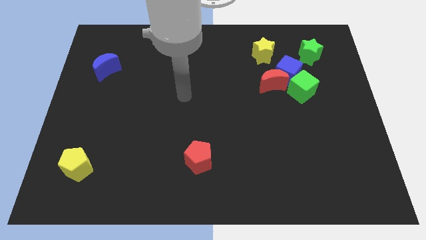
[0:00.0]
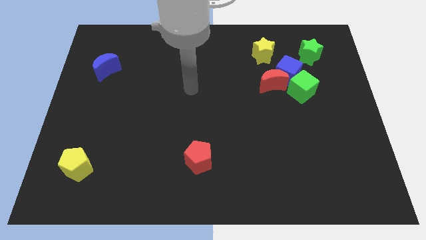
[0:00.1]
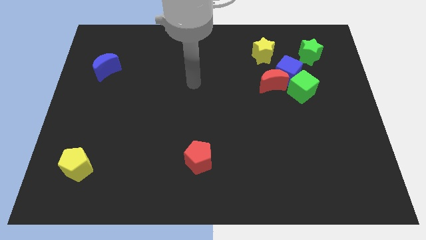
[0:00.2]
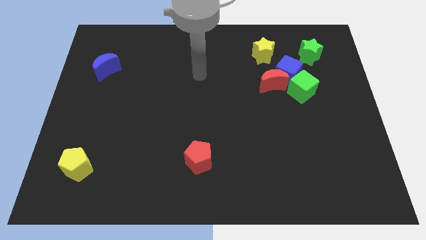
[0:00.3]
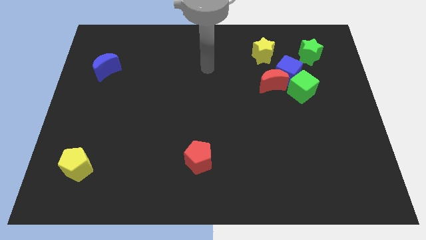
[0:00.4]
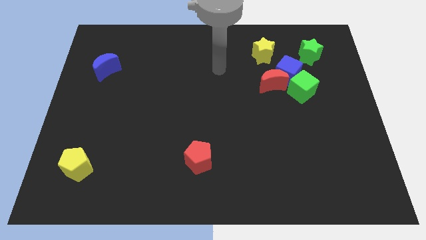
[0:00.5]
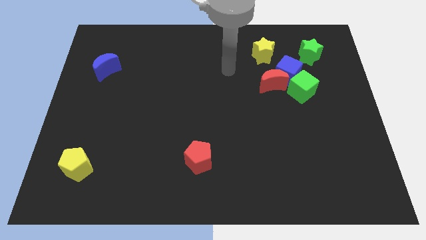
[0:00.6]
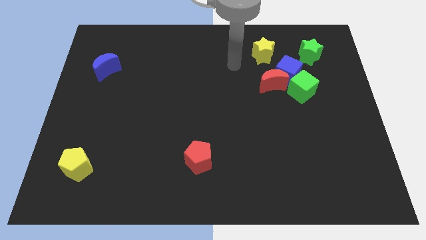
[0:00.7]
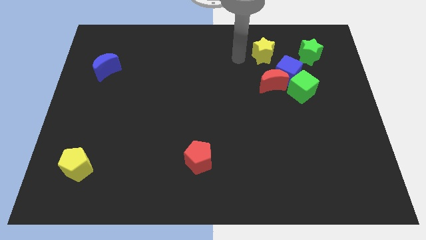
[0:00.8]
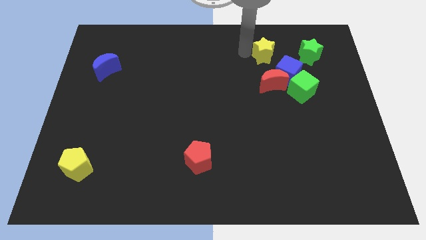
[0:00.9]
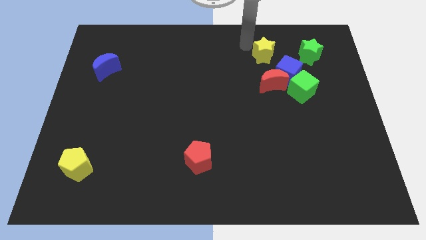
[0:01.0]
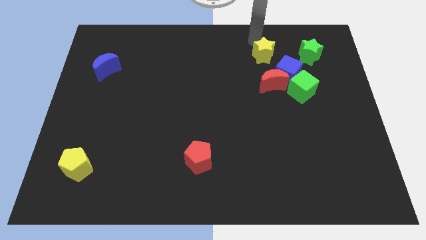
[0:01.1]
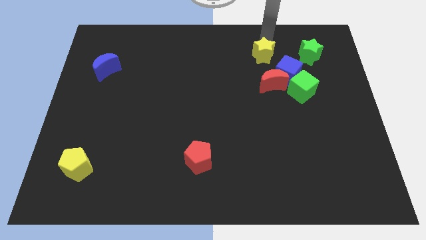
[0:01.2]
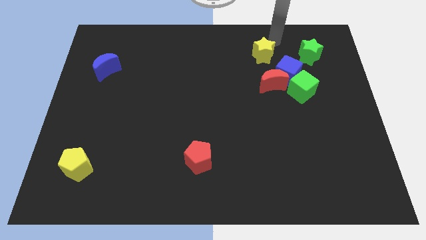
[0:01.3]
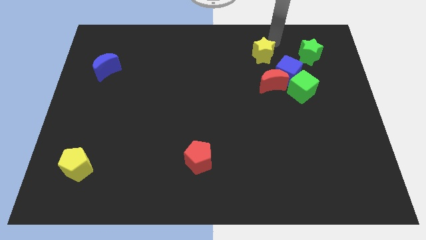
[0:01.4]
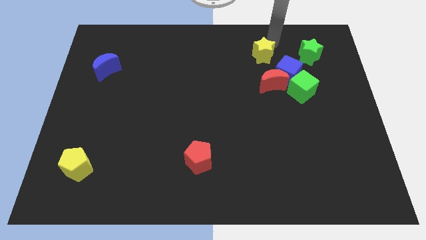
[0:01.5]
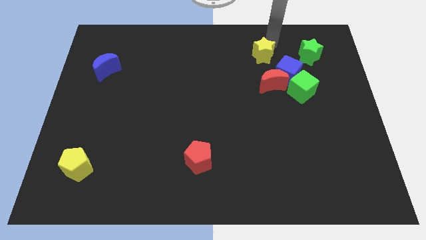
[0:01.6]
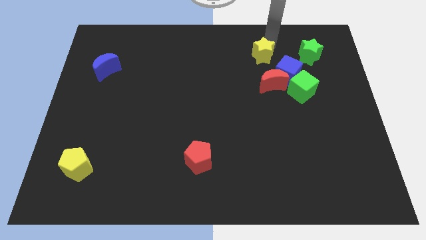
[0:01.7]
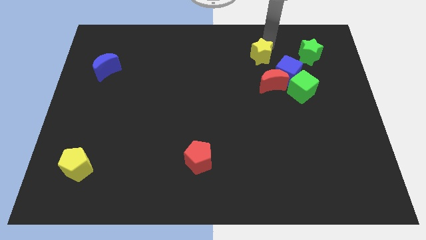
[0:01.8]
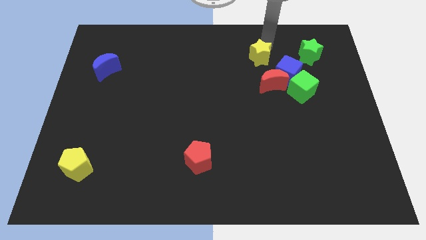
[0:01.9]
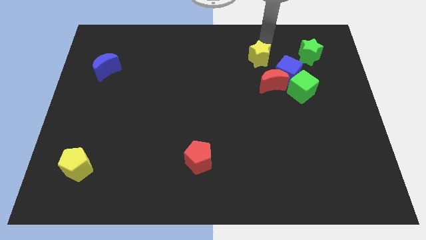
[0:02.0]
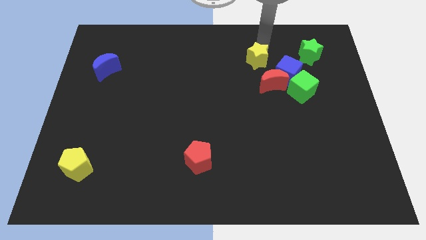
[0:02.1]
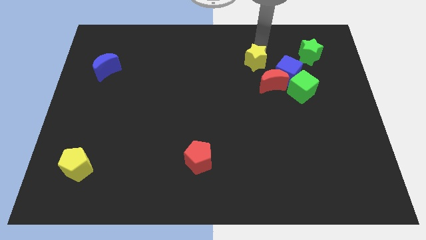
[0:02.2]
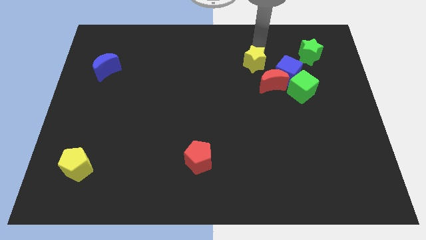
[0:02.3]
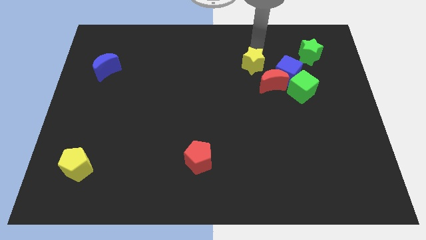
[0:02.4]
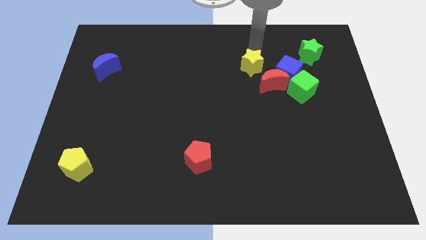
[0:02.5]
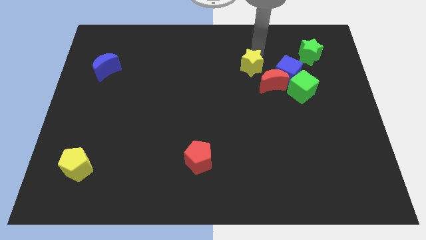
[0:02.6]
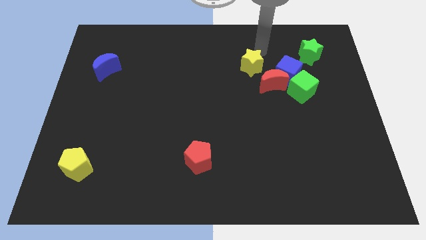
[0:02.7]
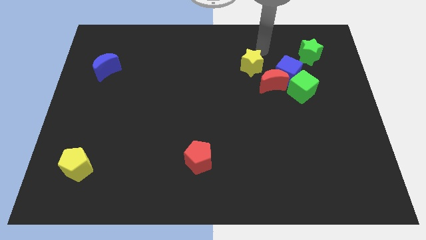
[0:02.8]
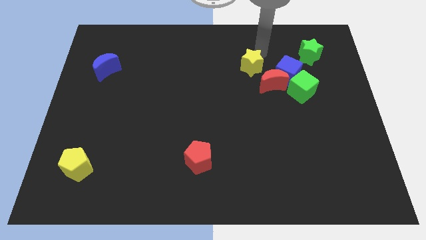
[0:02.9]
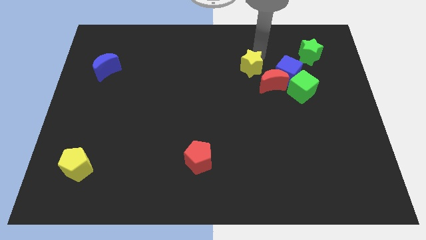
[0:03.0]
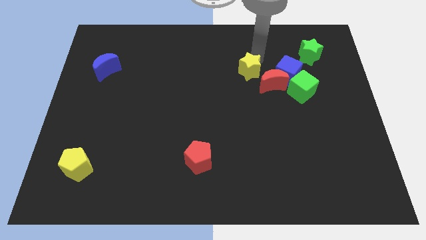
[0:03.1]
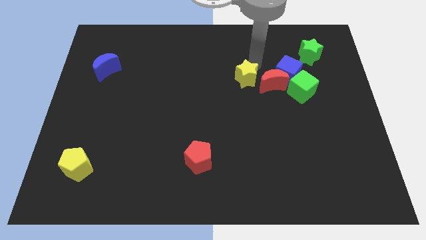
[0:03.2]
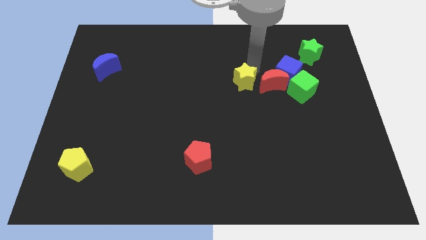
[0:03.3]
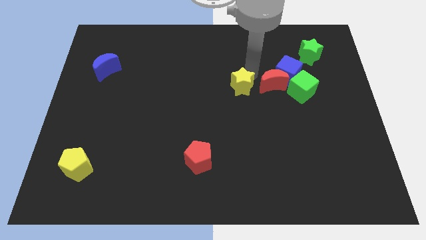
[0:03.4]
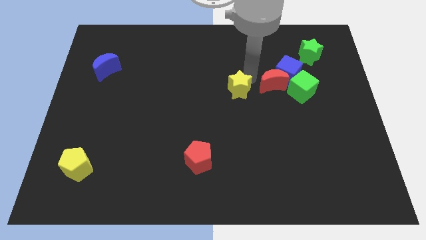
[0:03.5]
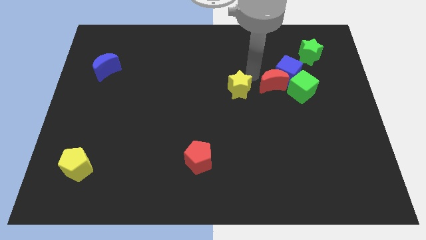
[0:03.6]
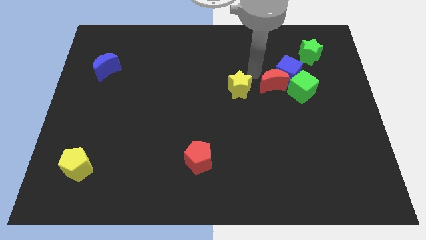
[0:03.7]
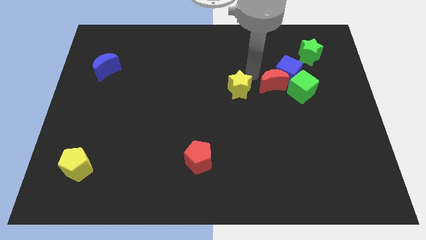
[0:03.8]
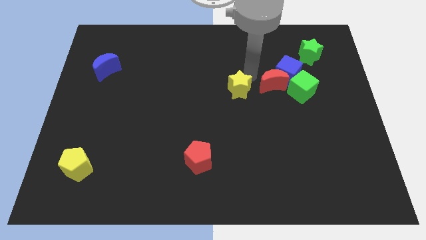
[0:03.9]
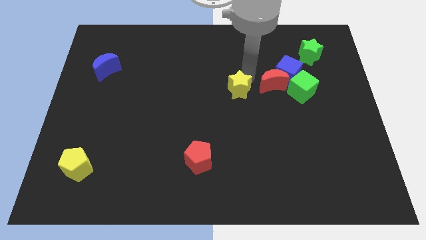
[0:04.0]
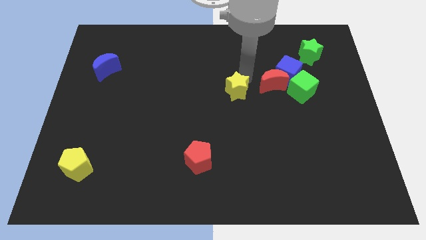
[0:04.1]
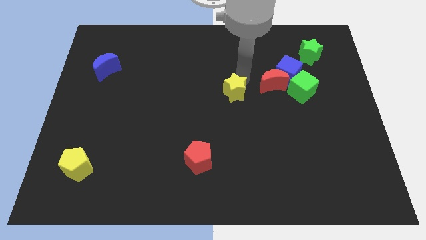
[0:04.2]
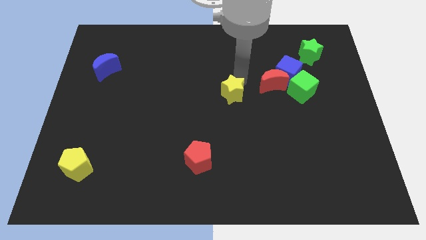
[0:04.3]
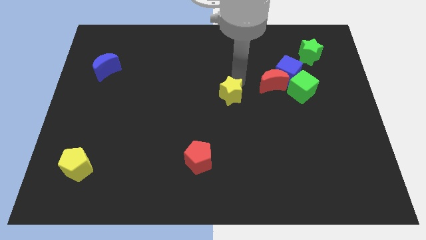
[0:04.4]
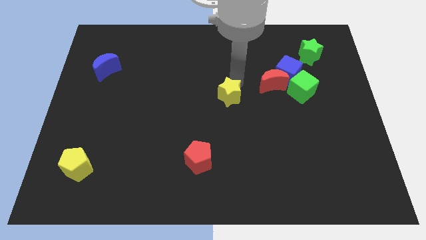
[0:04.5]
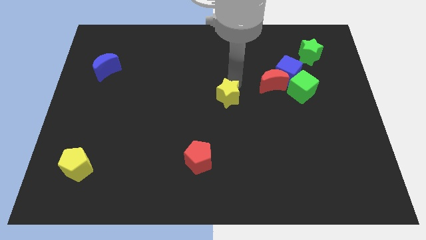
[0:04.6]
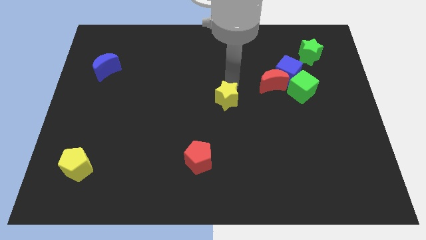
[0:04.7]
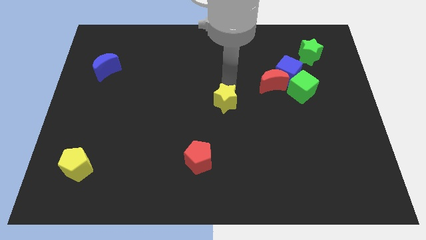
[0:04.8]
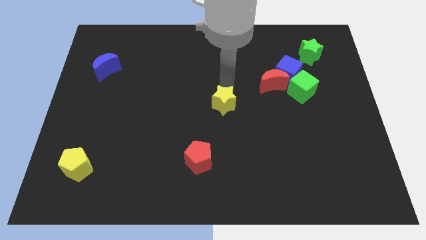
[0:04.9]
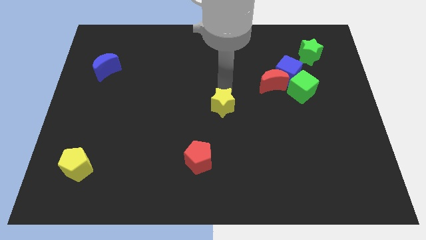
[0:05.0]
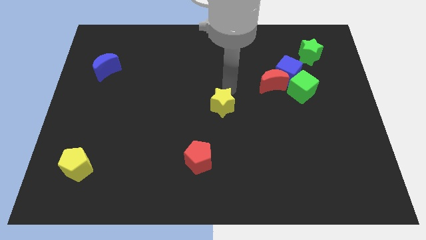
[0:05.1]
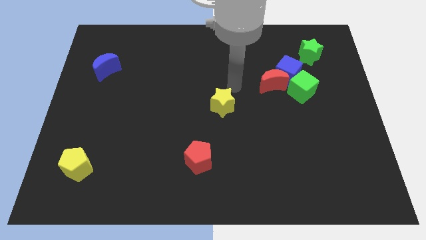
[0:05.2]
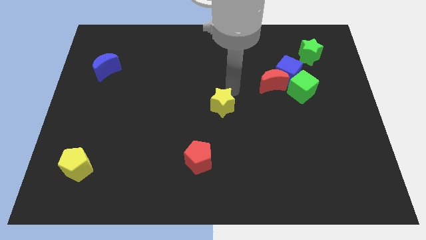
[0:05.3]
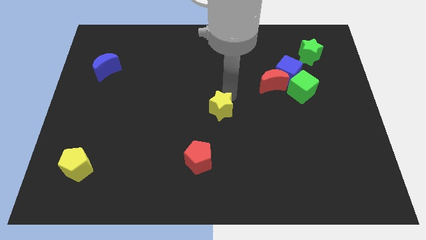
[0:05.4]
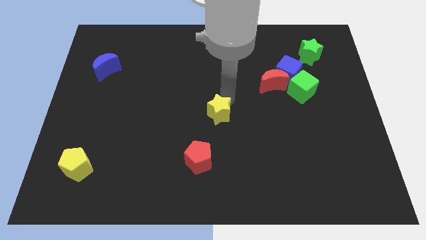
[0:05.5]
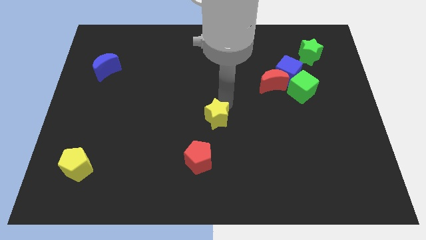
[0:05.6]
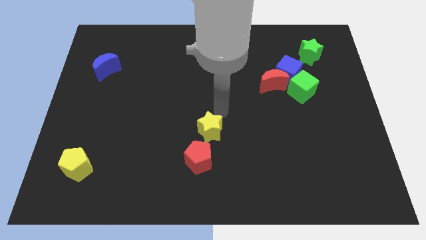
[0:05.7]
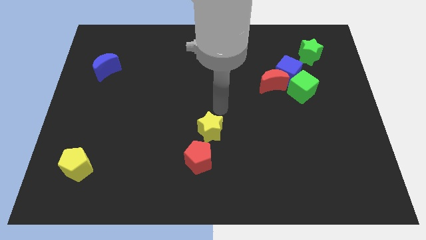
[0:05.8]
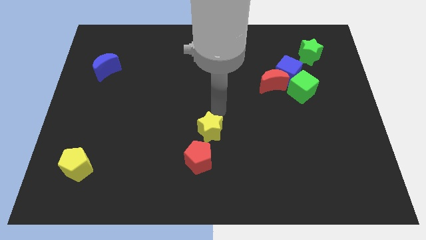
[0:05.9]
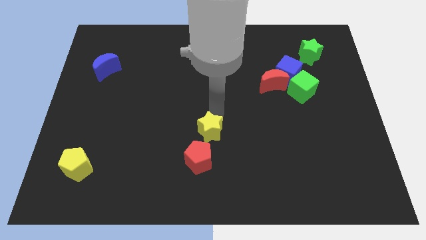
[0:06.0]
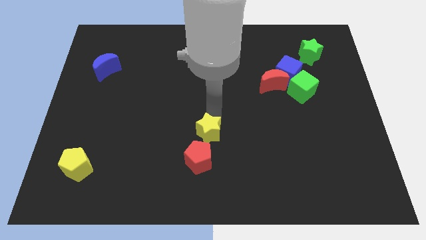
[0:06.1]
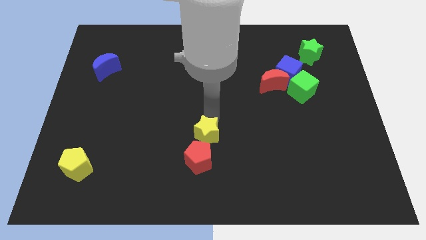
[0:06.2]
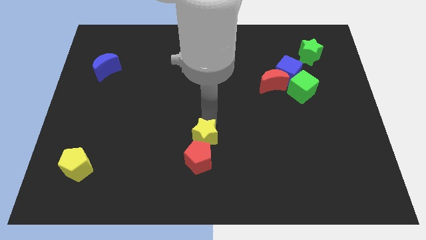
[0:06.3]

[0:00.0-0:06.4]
move the yellow star next to the red pentagon

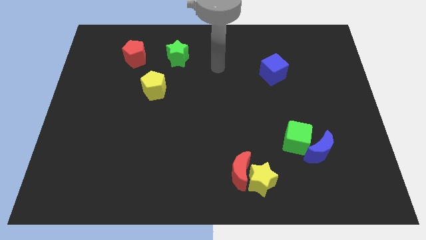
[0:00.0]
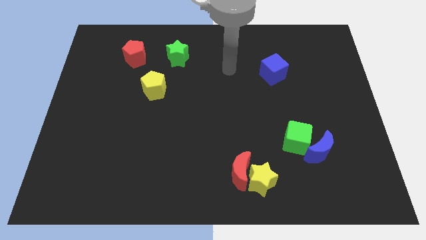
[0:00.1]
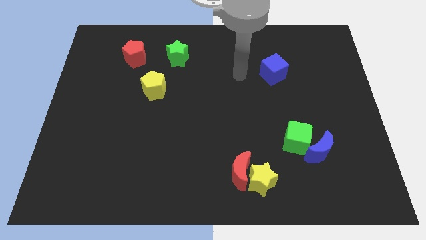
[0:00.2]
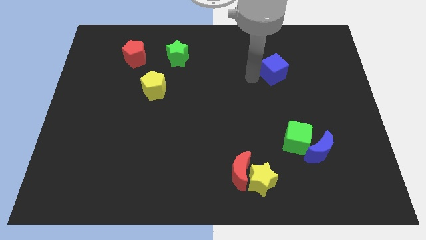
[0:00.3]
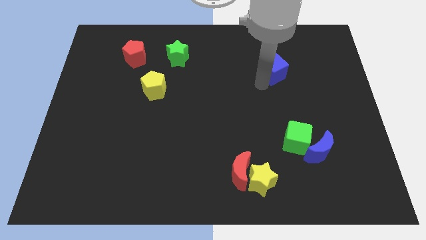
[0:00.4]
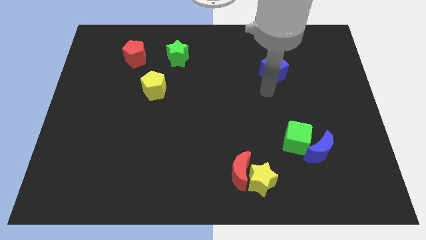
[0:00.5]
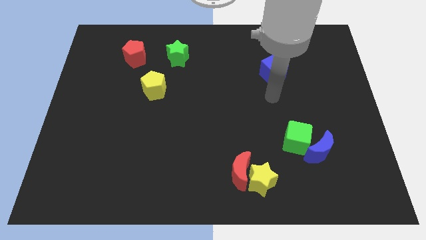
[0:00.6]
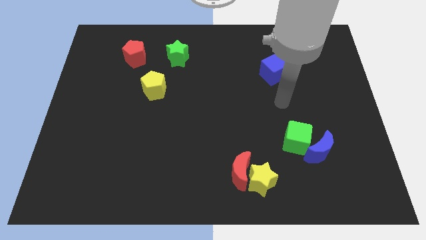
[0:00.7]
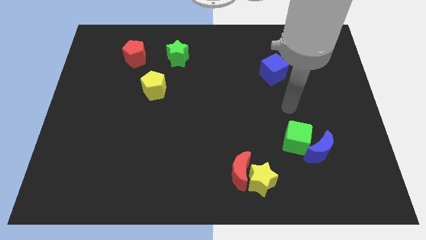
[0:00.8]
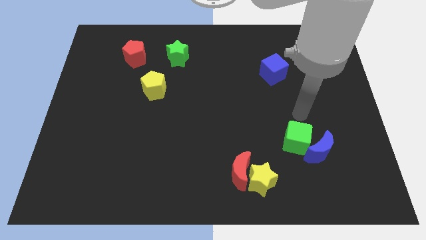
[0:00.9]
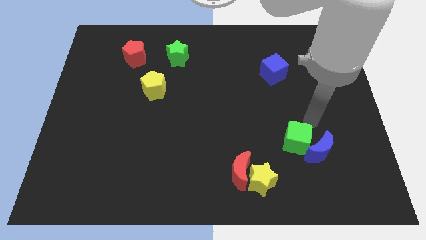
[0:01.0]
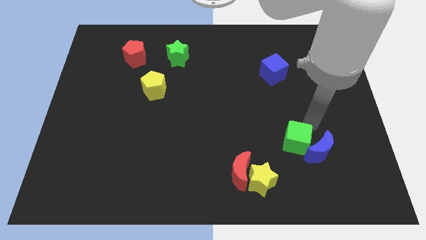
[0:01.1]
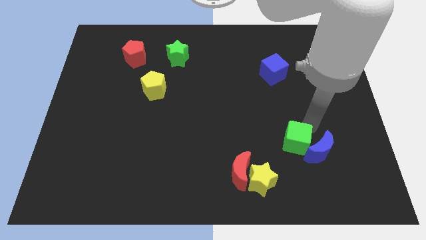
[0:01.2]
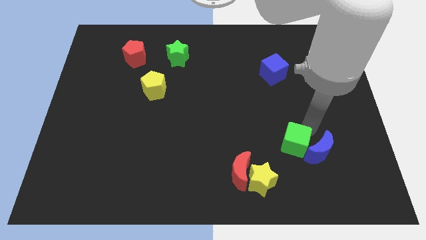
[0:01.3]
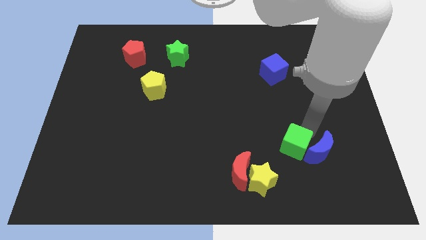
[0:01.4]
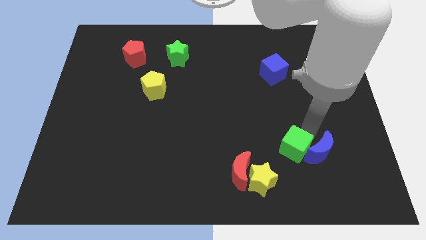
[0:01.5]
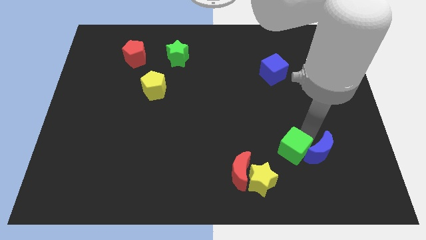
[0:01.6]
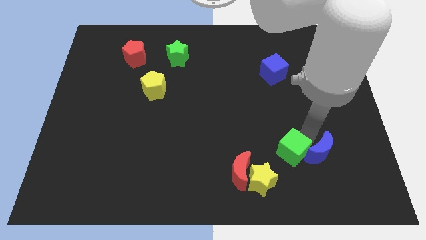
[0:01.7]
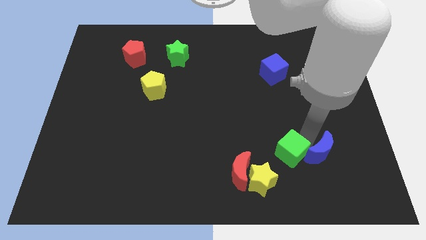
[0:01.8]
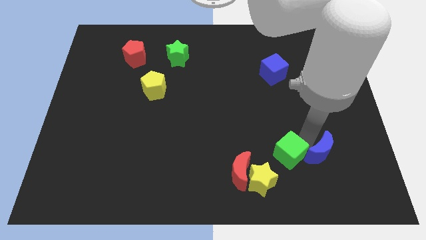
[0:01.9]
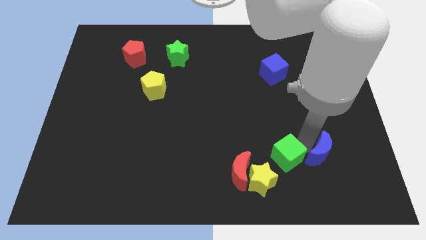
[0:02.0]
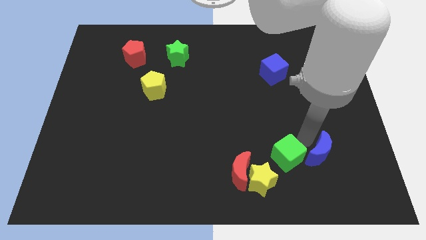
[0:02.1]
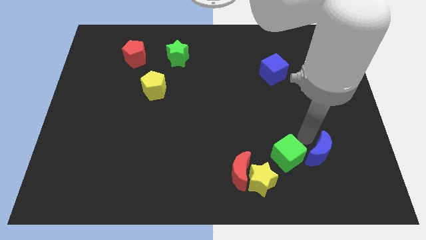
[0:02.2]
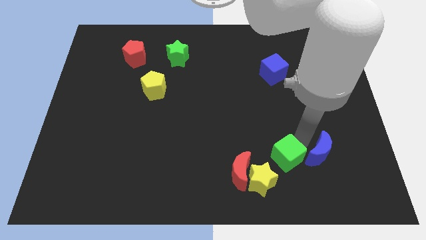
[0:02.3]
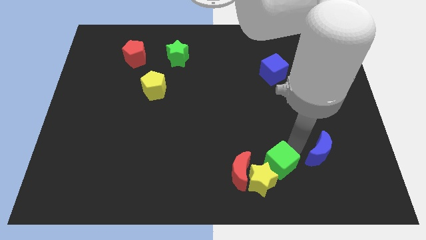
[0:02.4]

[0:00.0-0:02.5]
push the green cube close to the yellow star
